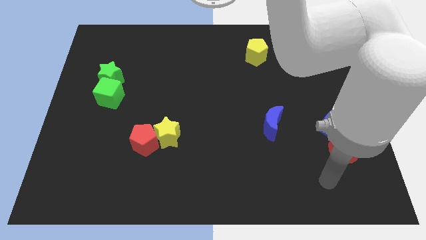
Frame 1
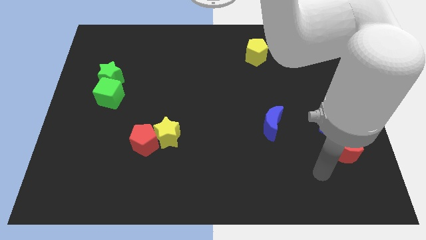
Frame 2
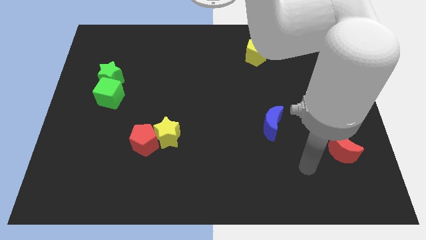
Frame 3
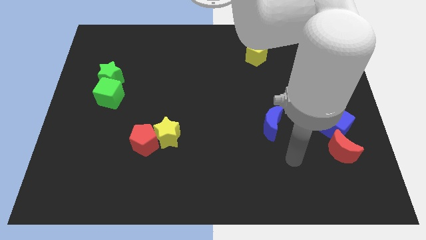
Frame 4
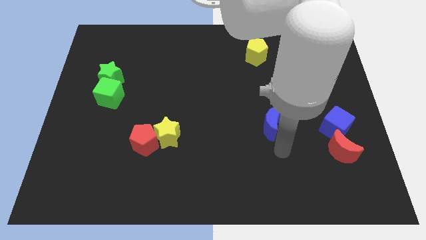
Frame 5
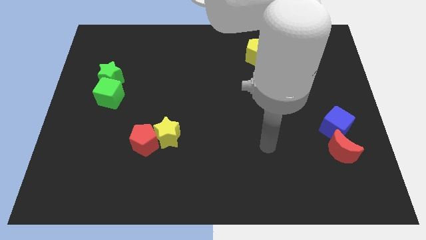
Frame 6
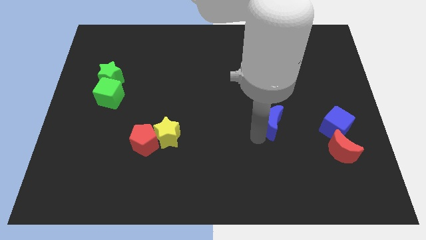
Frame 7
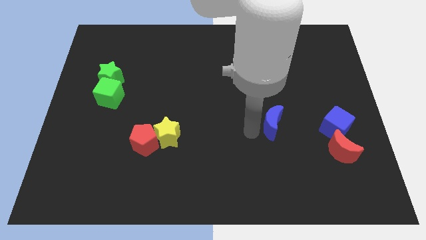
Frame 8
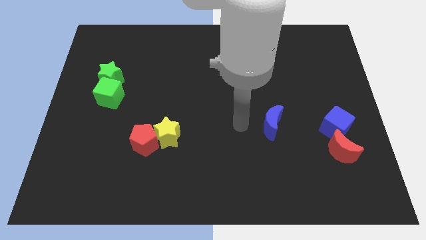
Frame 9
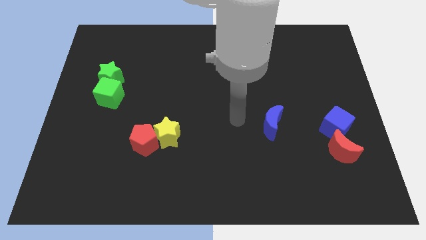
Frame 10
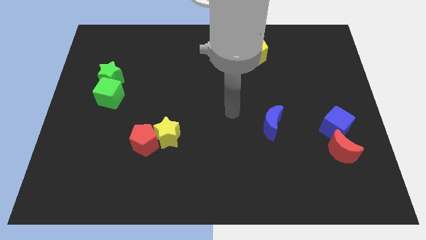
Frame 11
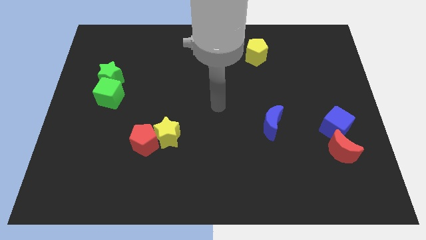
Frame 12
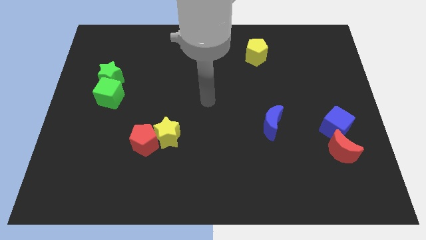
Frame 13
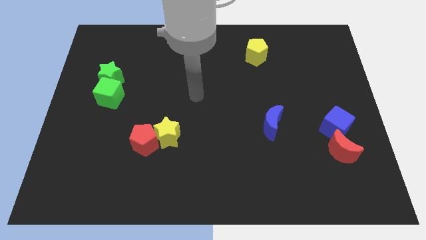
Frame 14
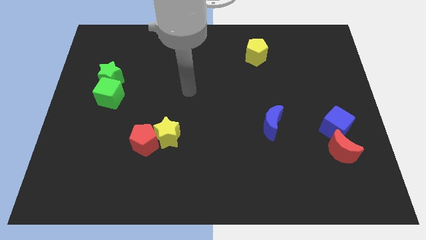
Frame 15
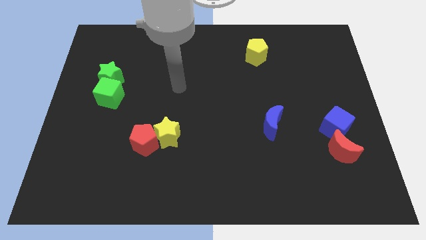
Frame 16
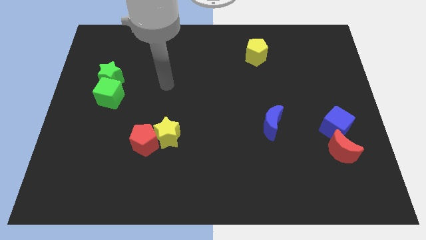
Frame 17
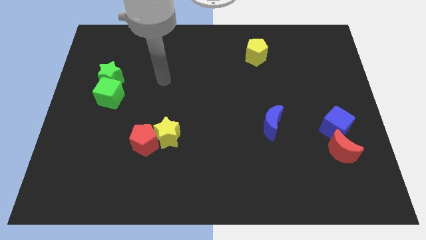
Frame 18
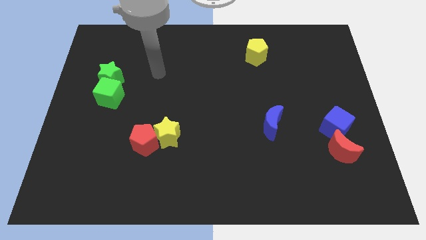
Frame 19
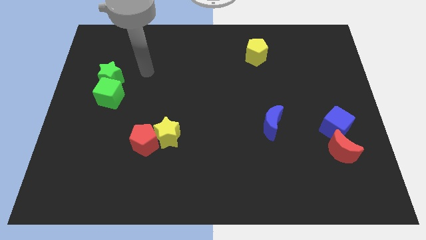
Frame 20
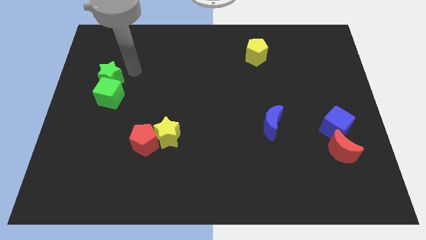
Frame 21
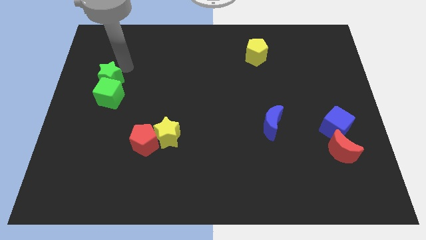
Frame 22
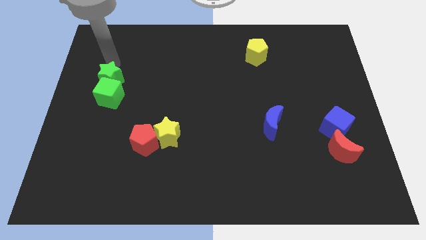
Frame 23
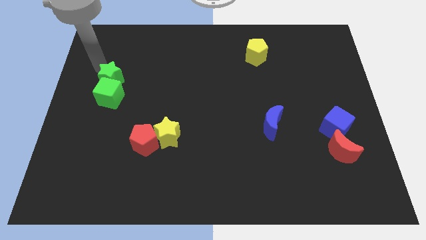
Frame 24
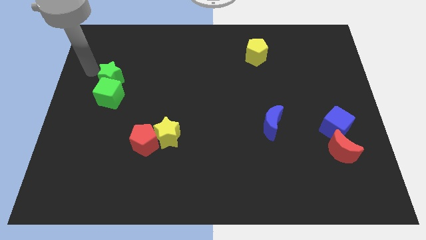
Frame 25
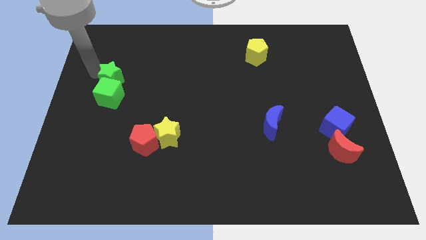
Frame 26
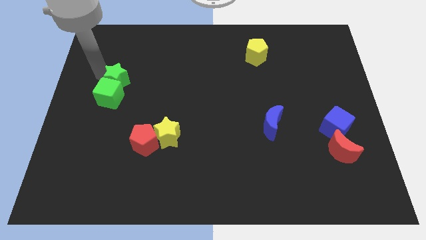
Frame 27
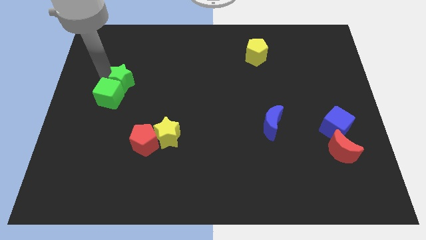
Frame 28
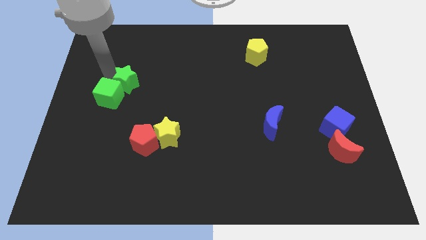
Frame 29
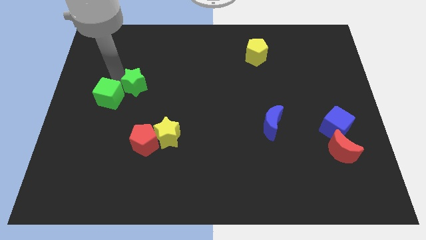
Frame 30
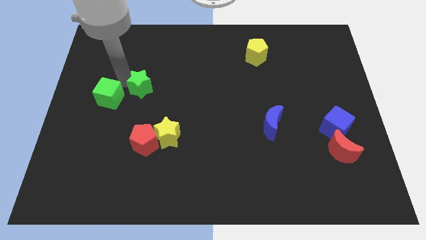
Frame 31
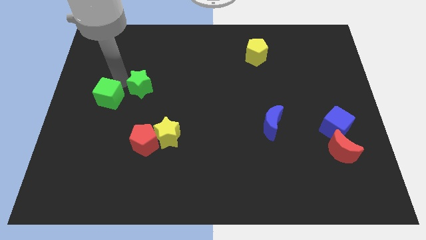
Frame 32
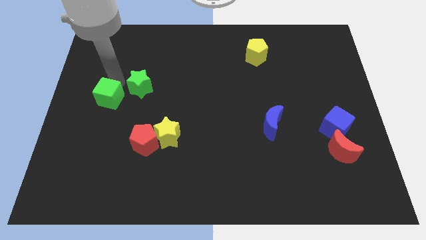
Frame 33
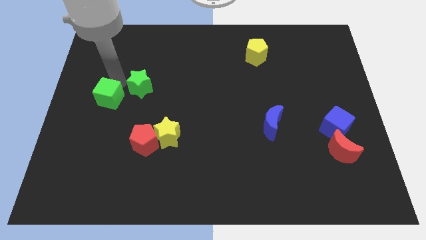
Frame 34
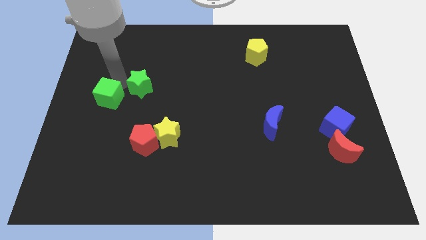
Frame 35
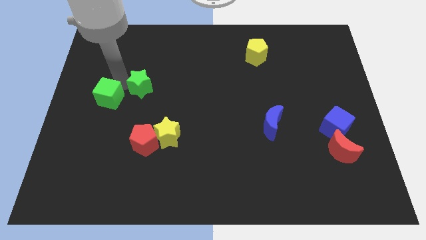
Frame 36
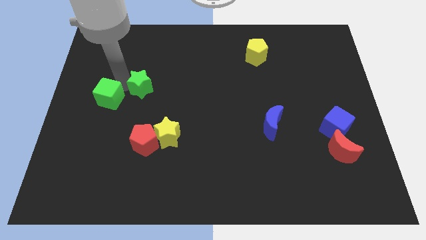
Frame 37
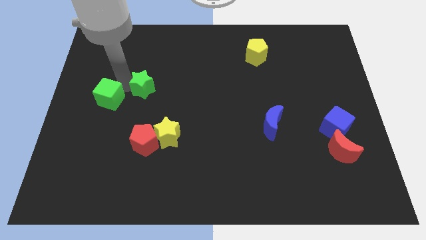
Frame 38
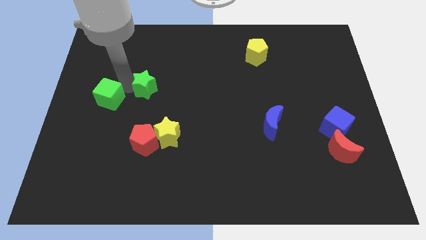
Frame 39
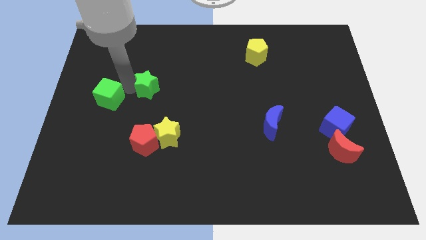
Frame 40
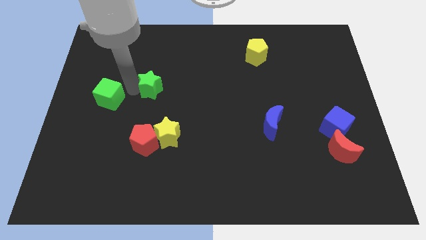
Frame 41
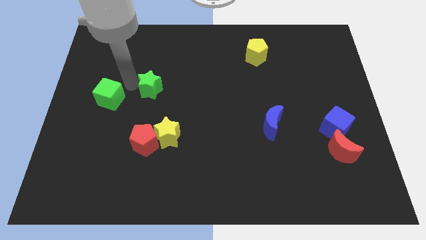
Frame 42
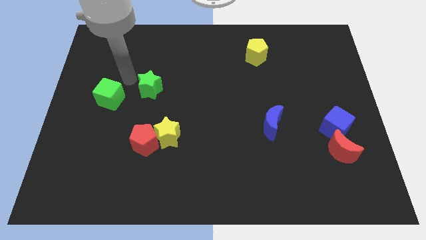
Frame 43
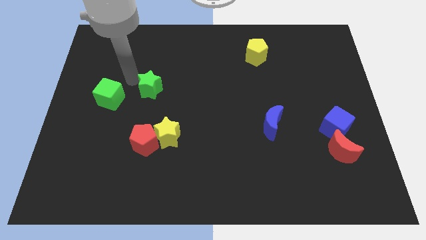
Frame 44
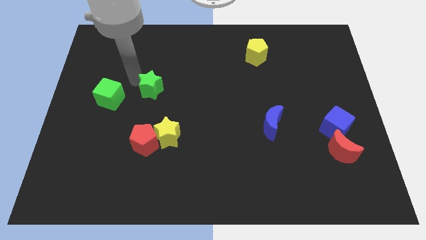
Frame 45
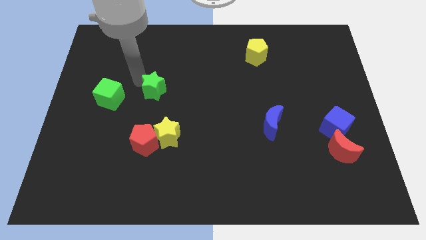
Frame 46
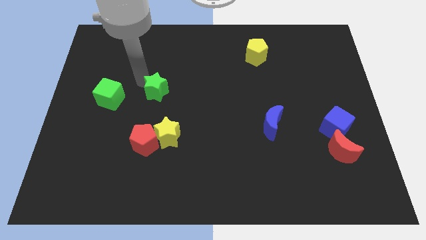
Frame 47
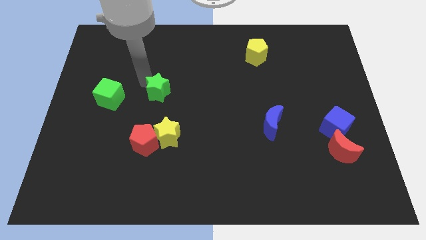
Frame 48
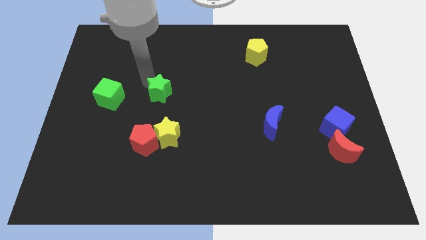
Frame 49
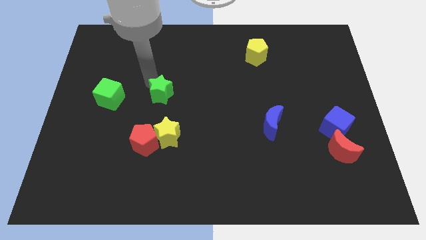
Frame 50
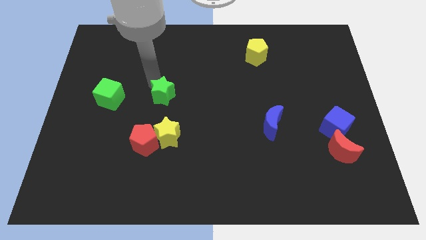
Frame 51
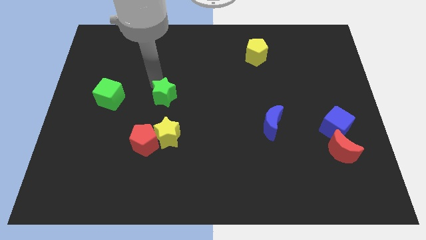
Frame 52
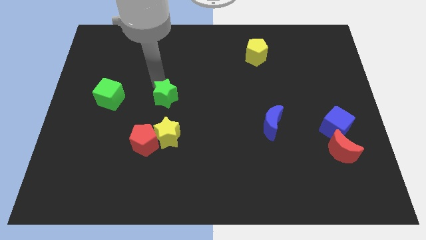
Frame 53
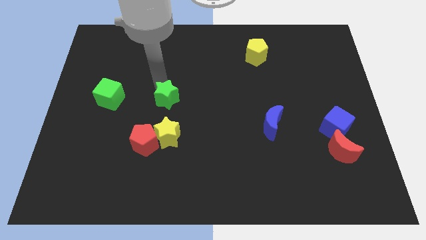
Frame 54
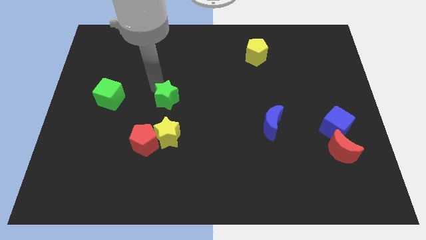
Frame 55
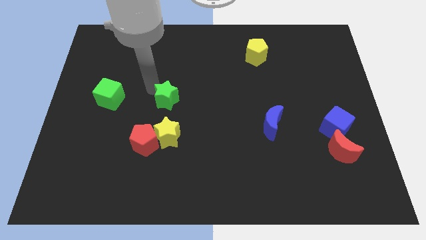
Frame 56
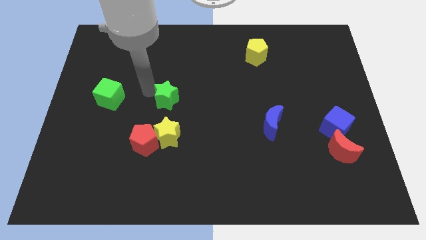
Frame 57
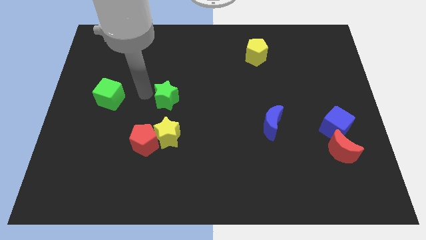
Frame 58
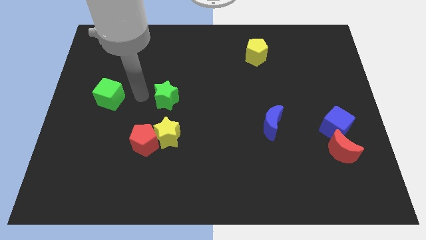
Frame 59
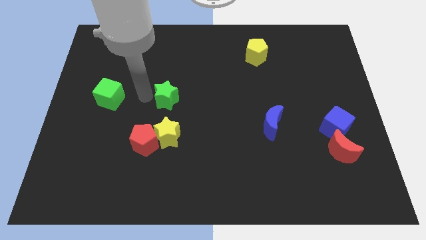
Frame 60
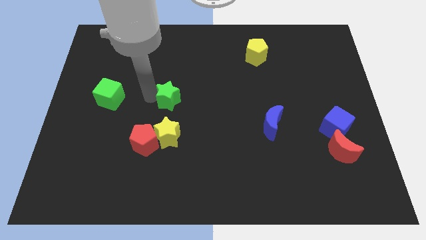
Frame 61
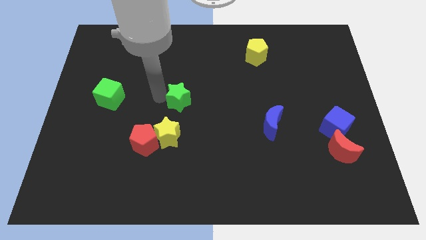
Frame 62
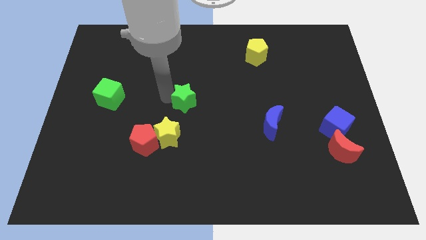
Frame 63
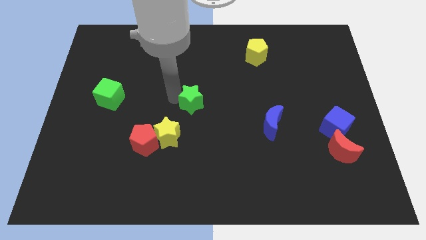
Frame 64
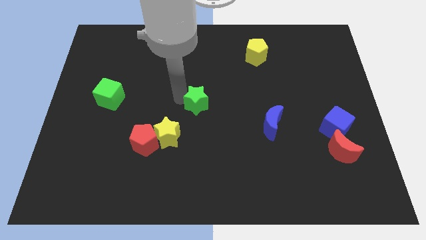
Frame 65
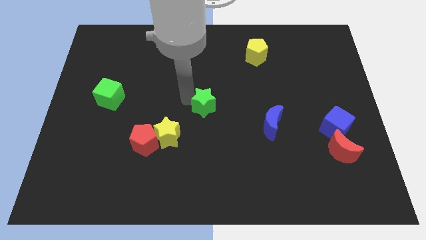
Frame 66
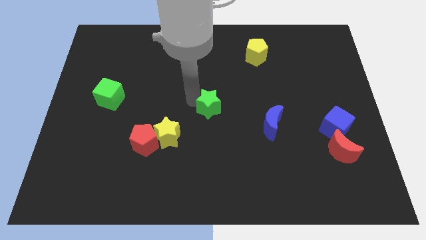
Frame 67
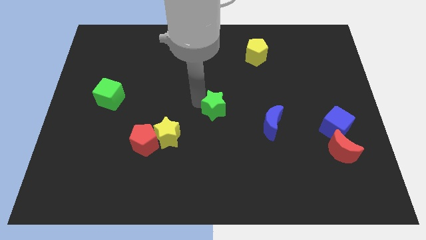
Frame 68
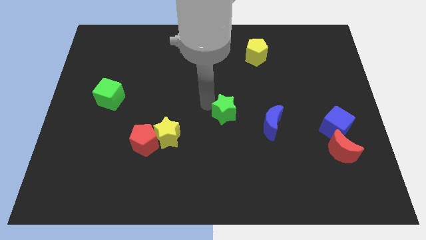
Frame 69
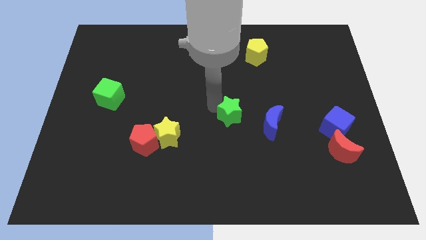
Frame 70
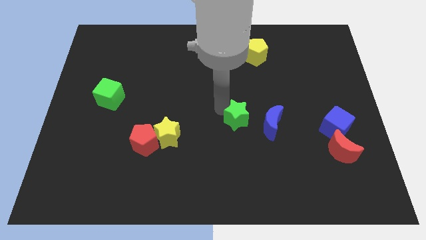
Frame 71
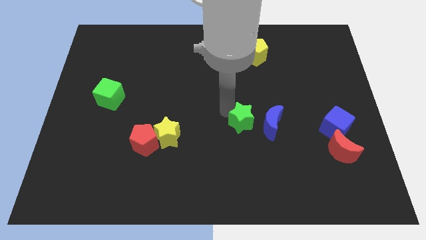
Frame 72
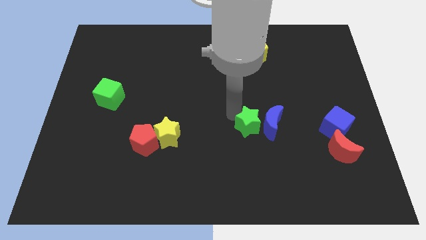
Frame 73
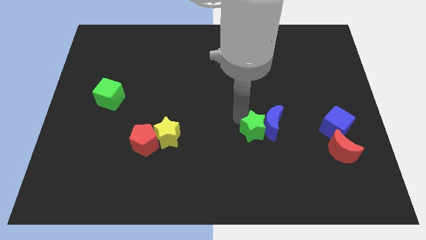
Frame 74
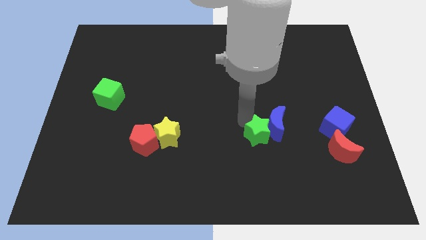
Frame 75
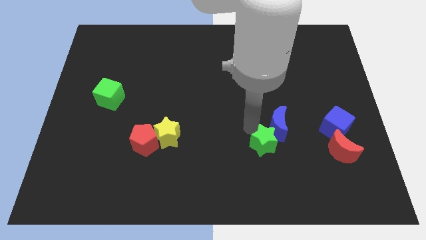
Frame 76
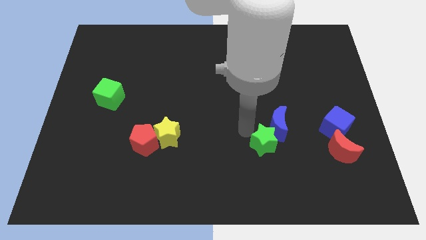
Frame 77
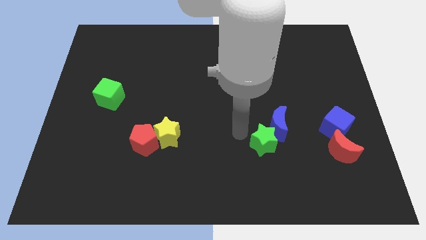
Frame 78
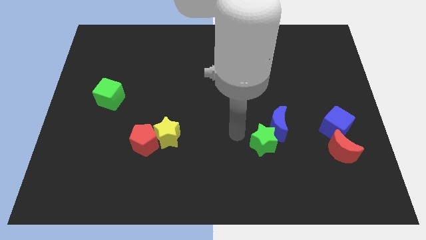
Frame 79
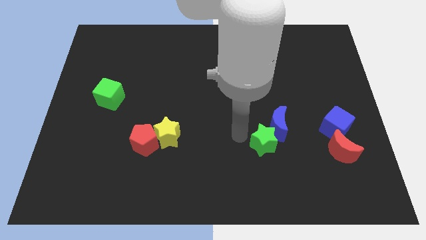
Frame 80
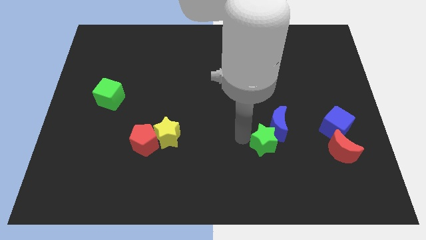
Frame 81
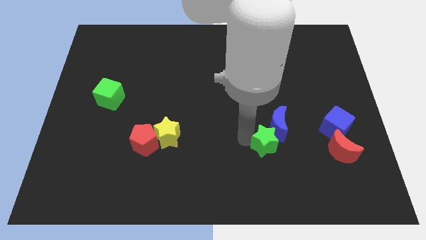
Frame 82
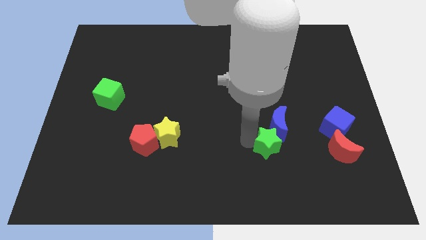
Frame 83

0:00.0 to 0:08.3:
push the green star to the left side of the red moon
